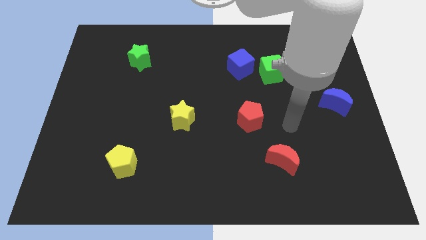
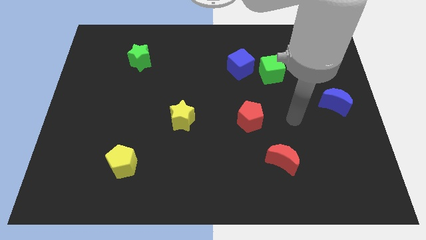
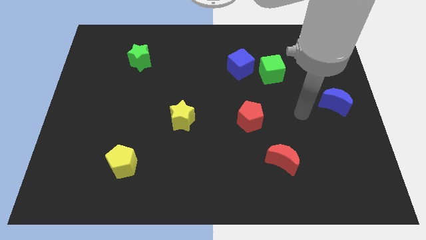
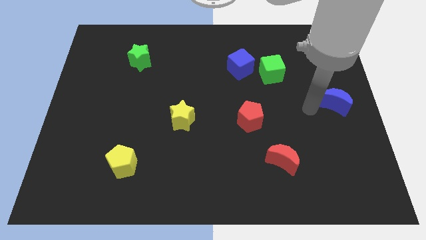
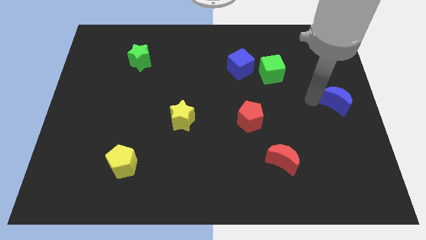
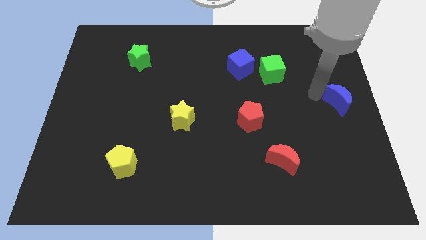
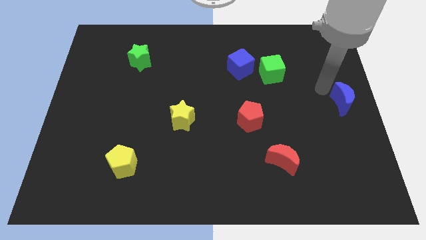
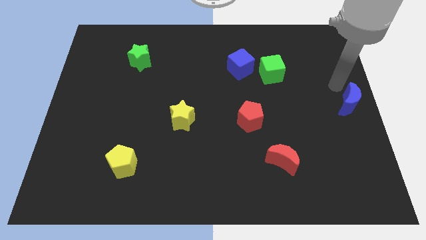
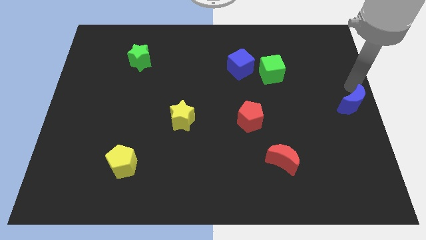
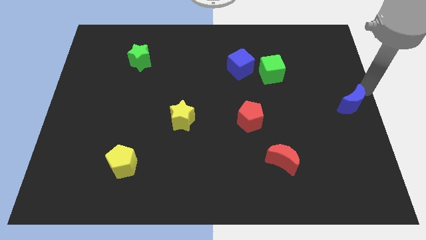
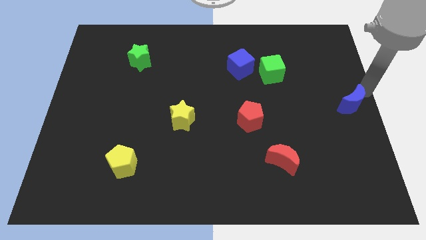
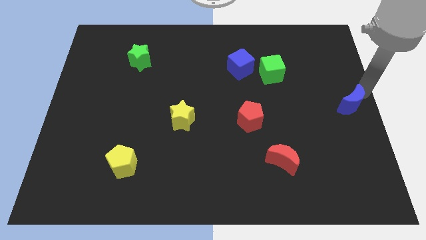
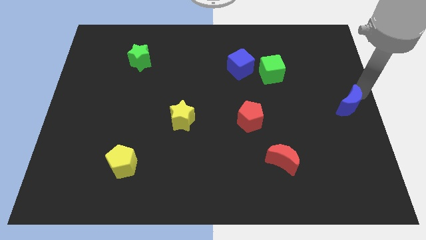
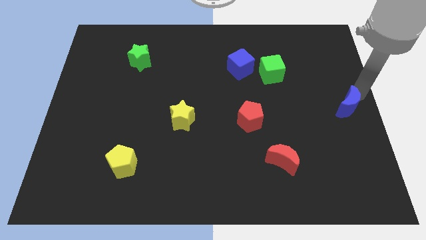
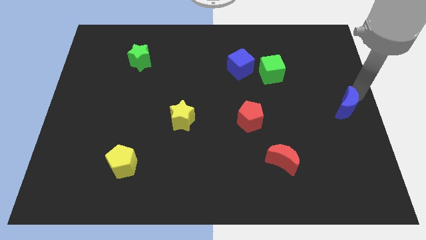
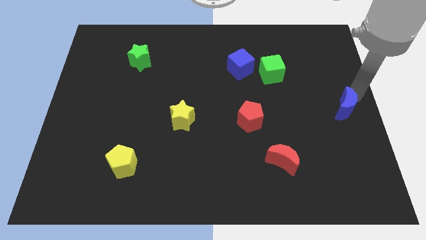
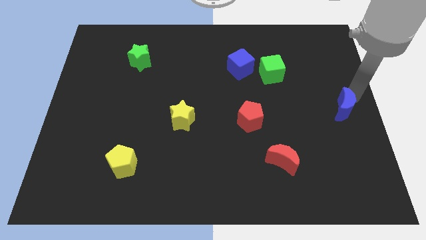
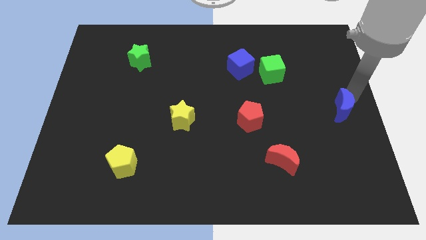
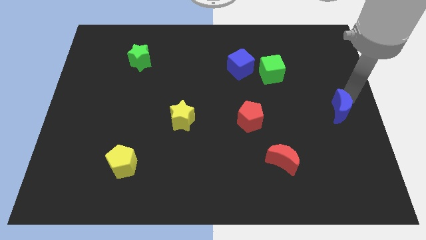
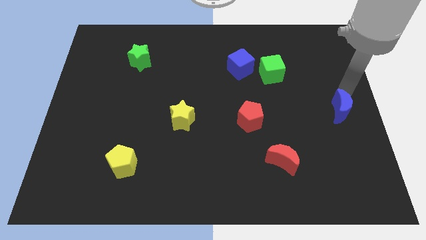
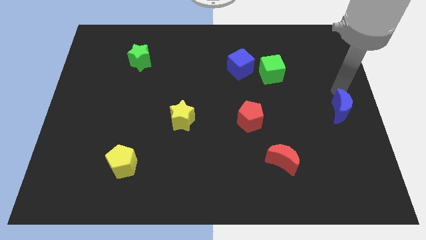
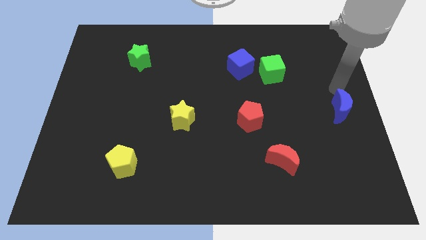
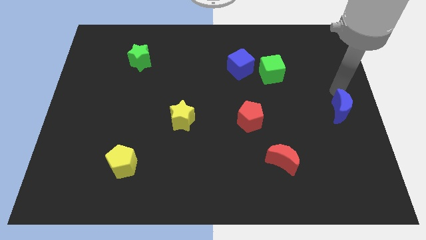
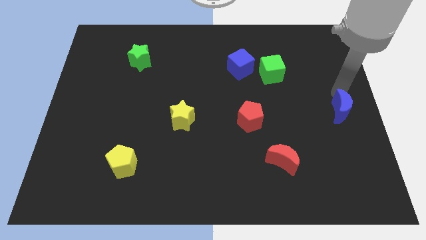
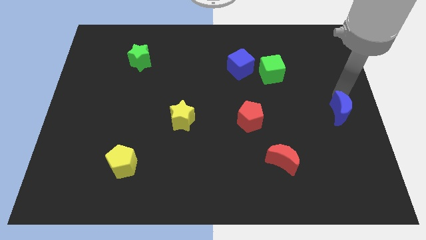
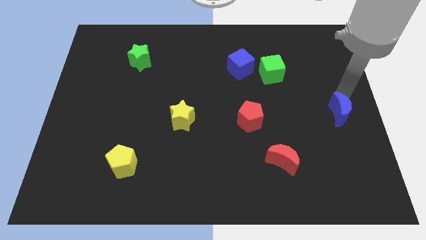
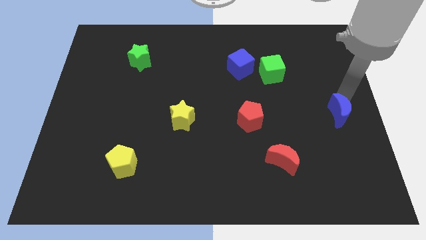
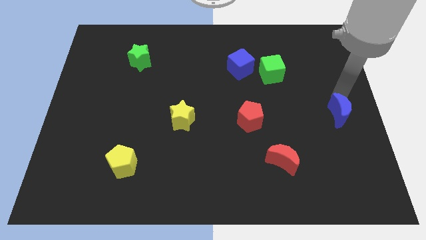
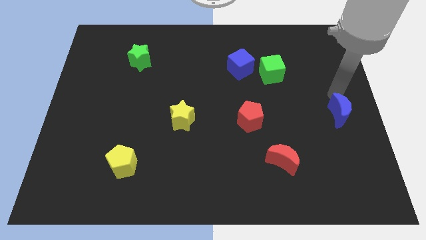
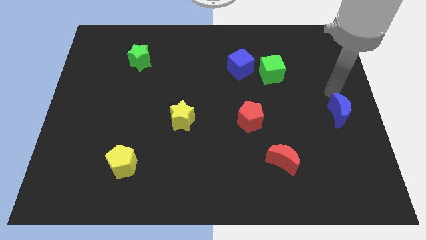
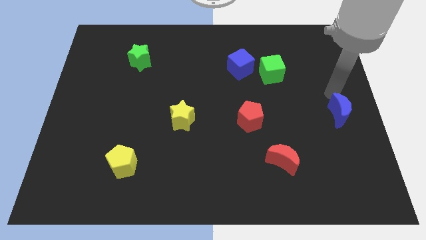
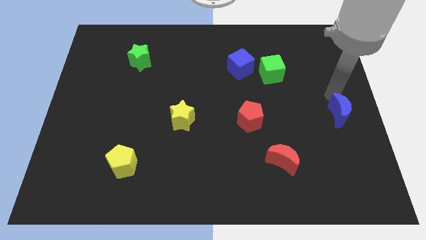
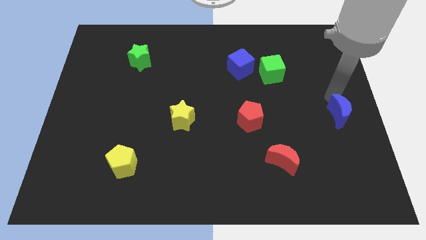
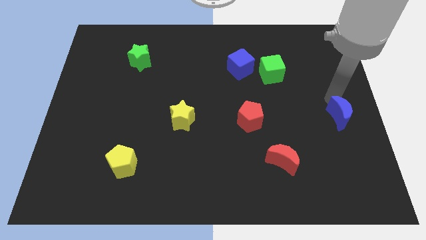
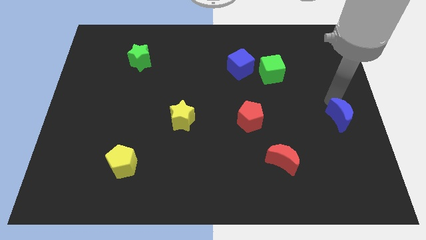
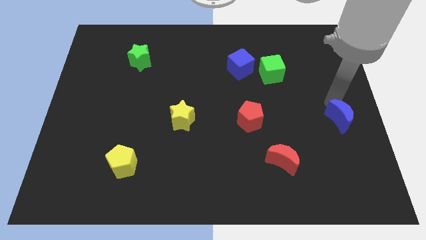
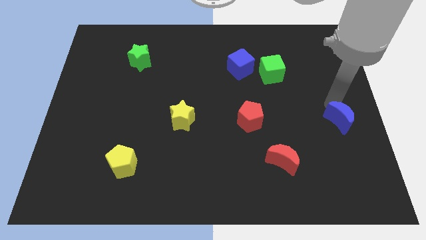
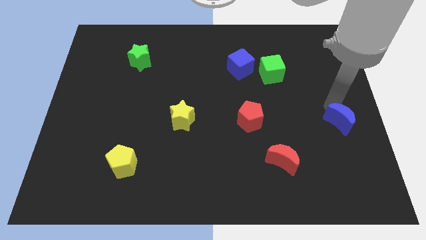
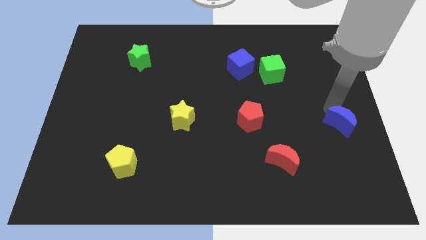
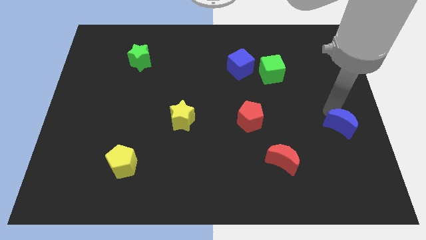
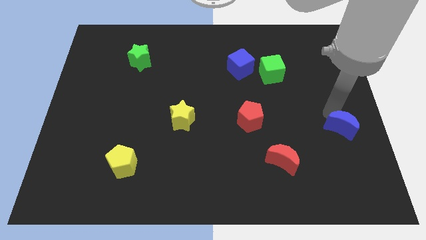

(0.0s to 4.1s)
slightly move the blue moon downwards

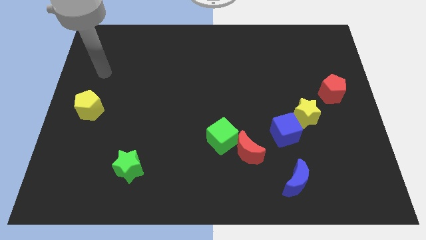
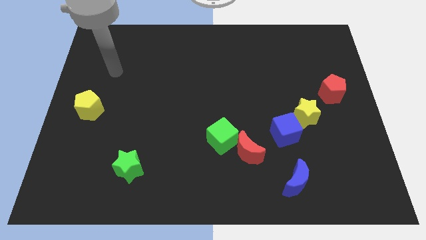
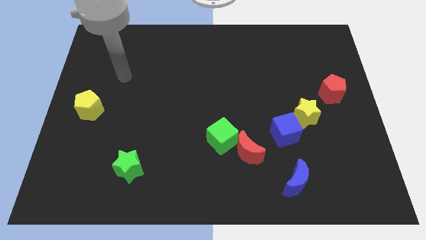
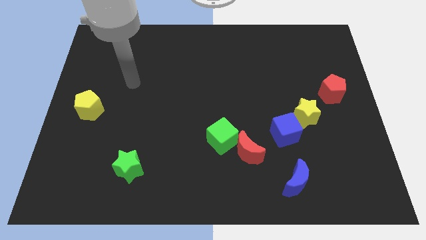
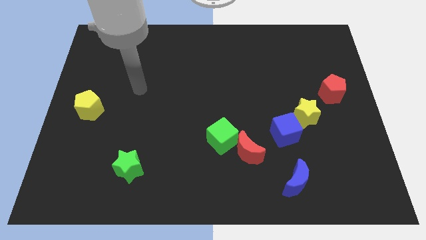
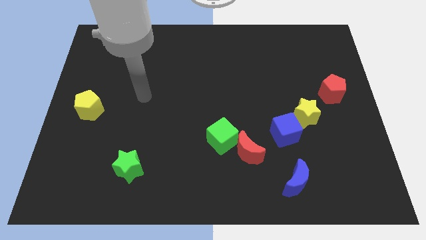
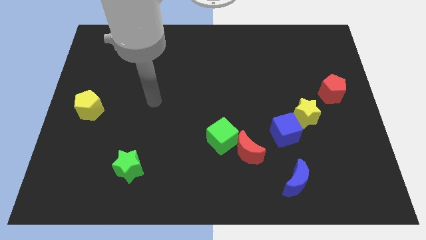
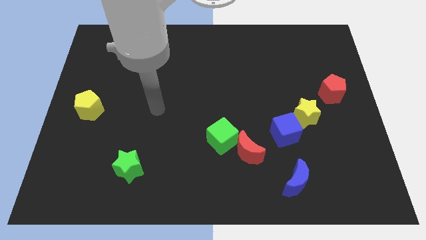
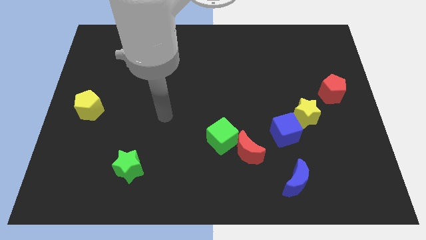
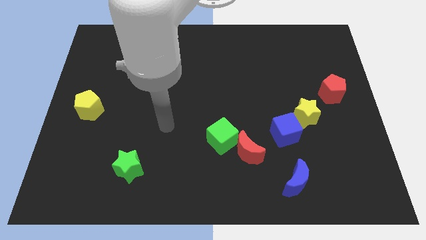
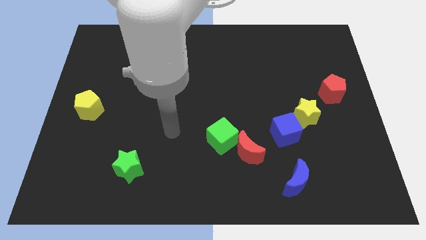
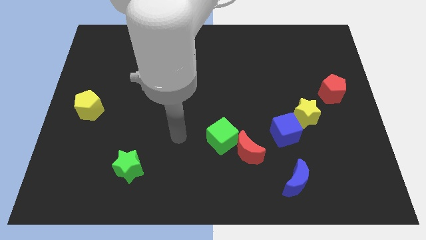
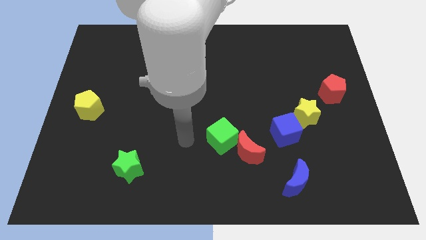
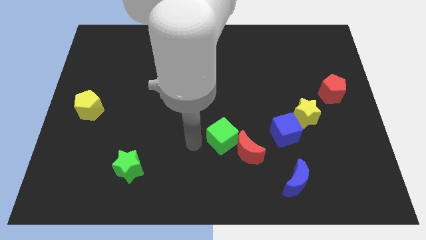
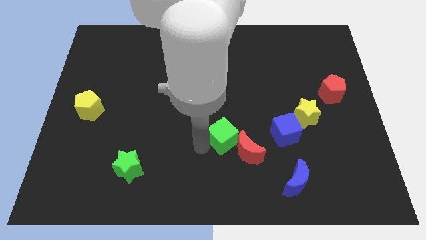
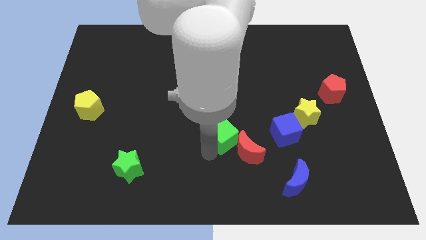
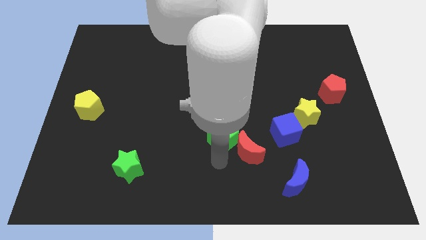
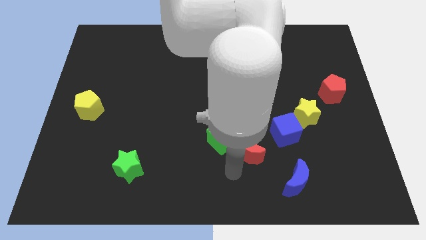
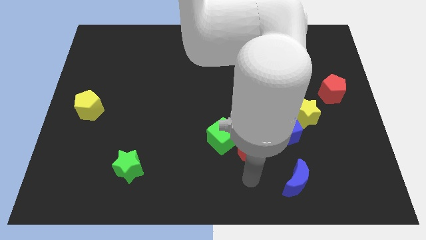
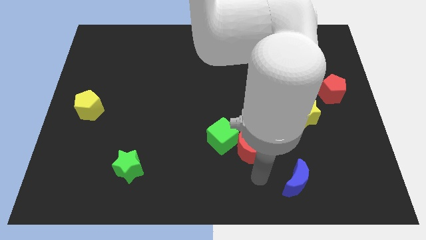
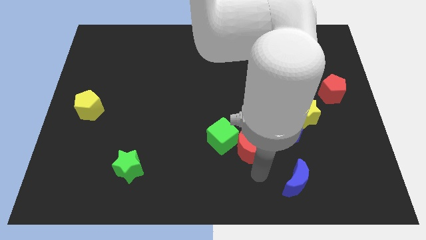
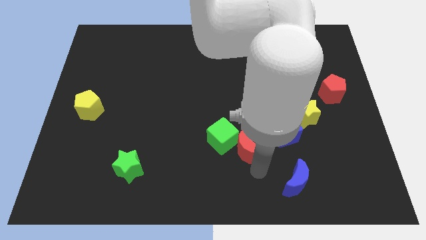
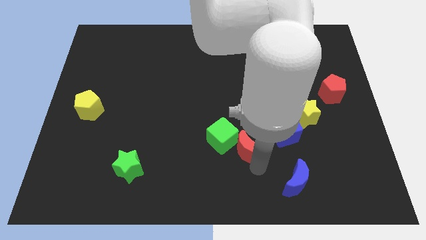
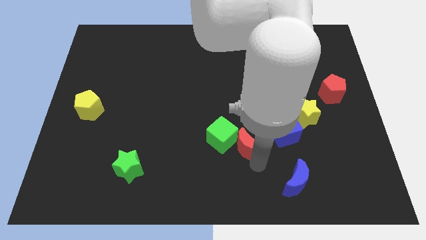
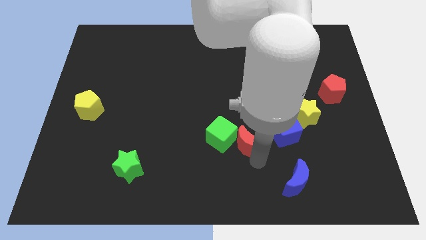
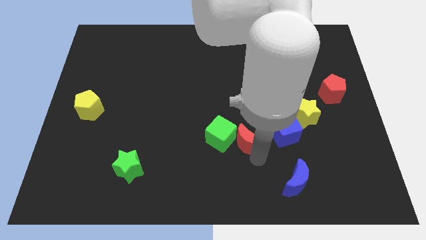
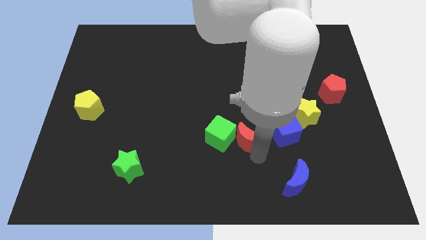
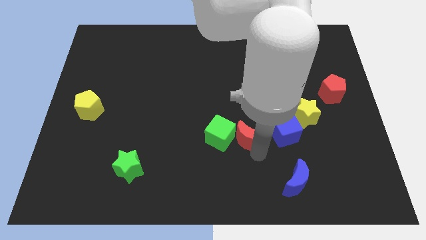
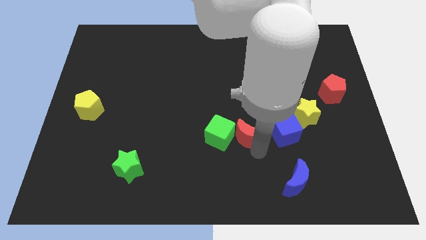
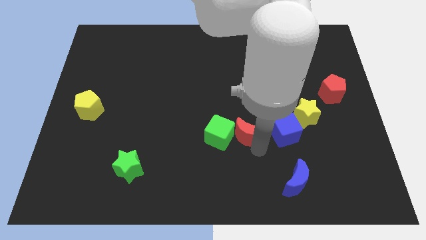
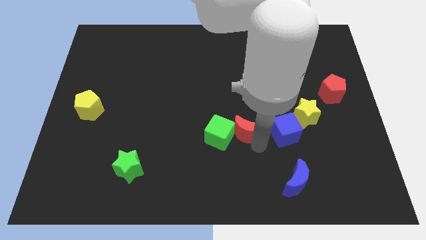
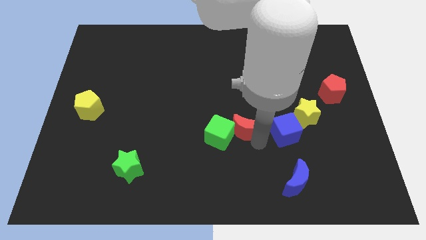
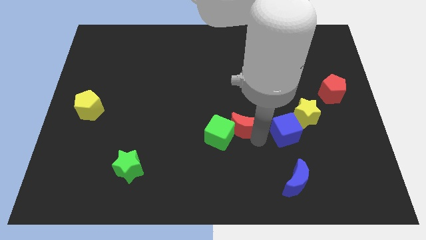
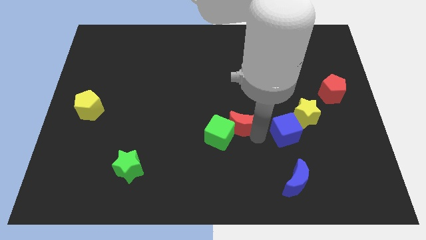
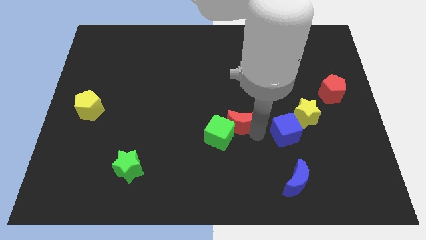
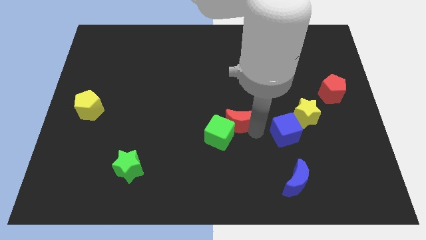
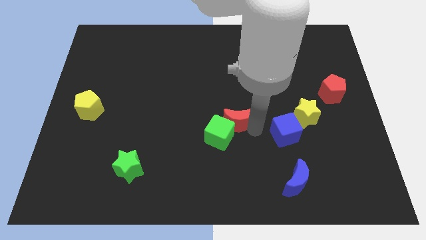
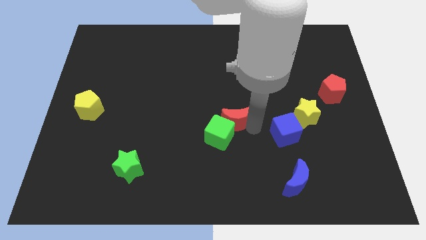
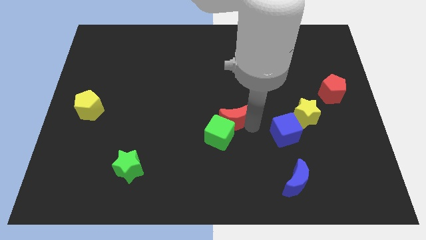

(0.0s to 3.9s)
slightly move the red moon diagonally upwards and left

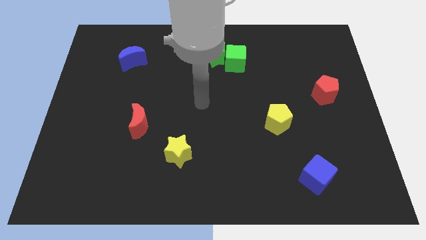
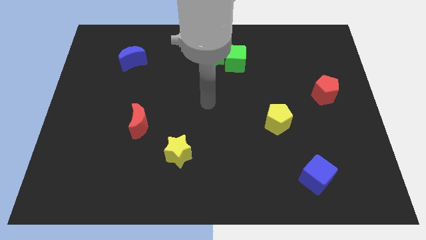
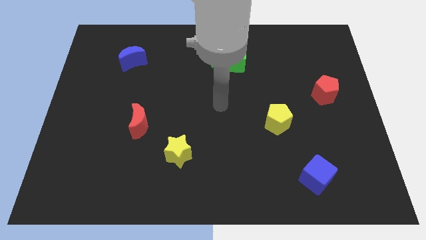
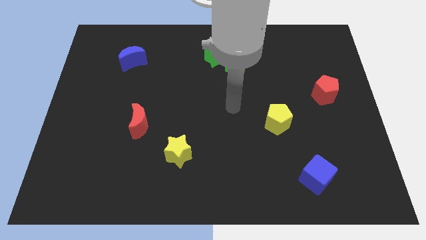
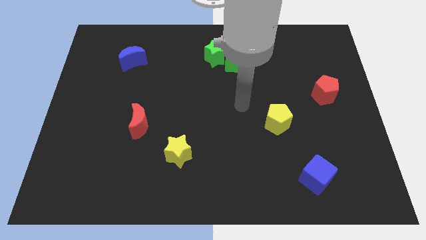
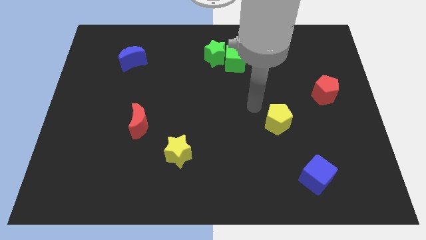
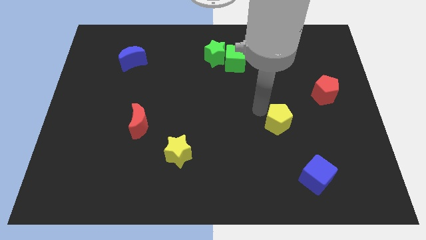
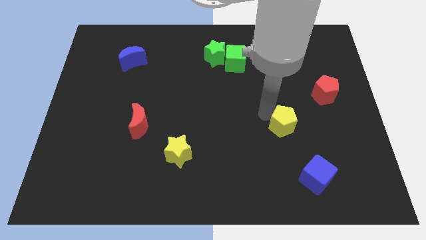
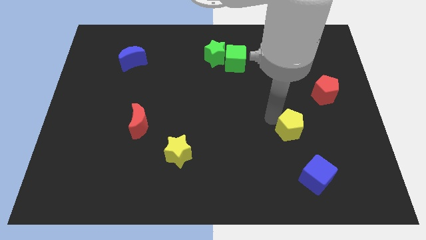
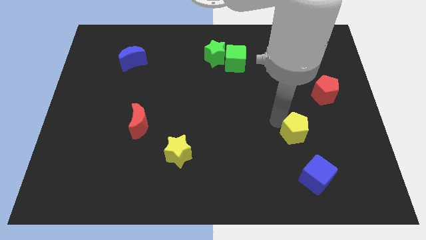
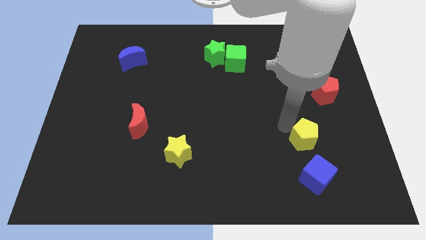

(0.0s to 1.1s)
move the yellow pentagon a little down and right
